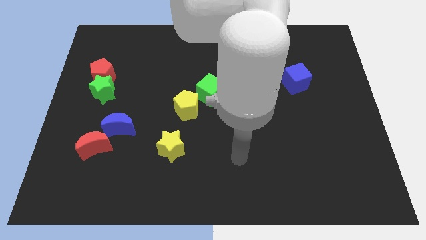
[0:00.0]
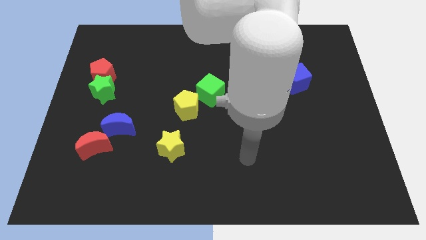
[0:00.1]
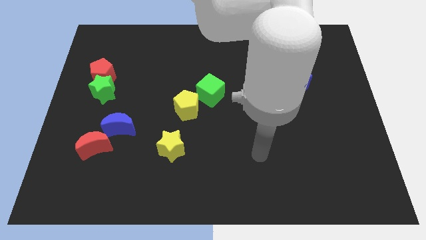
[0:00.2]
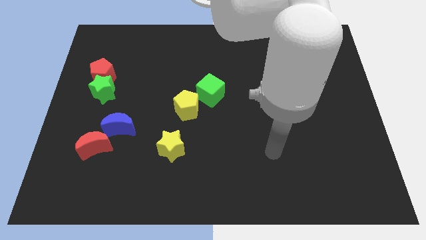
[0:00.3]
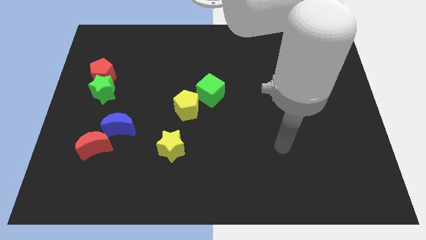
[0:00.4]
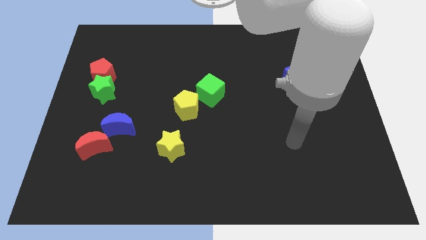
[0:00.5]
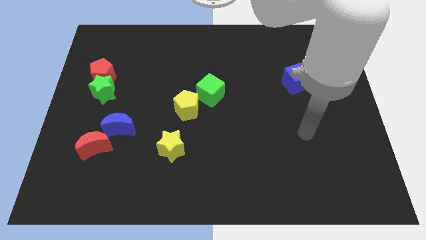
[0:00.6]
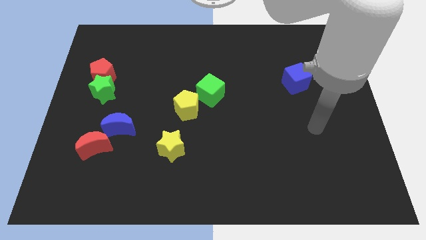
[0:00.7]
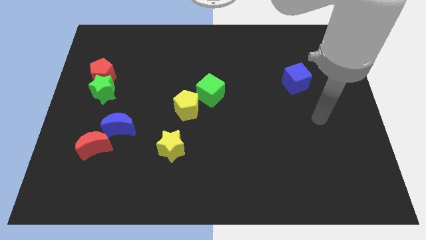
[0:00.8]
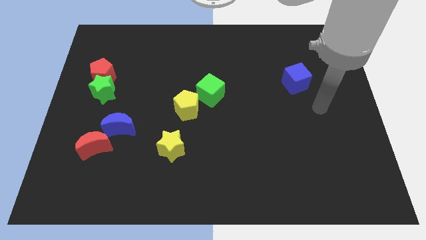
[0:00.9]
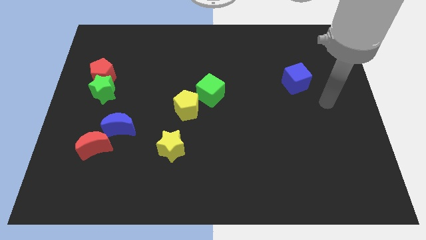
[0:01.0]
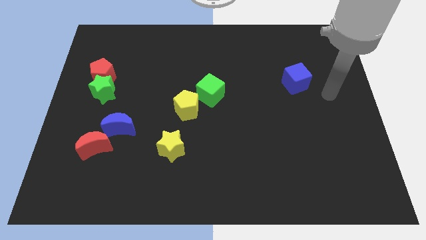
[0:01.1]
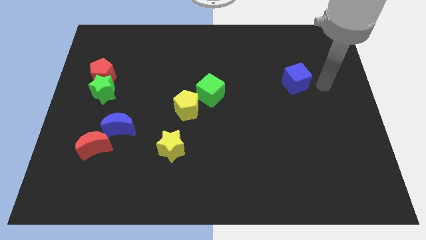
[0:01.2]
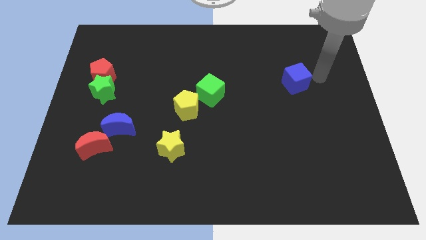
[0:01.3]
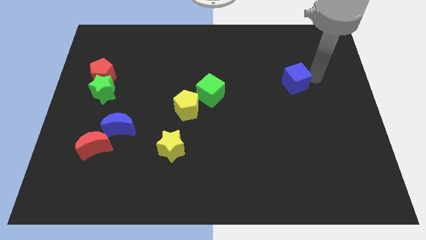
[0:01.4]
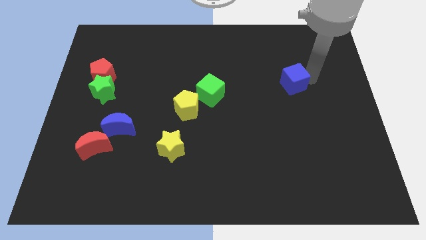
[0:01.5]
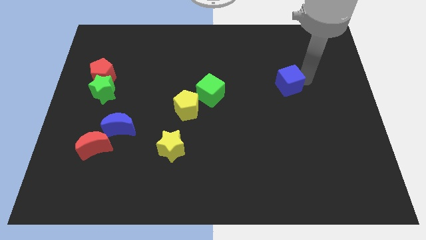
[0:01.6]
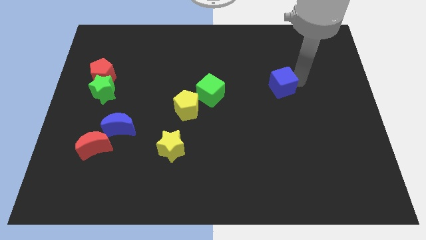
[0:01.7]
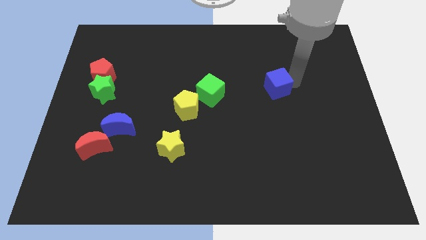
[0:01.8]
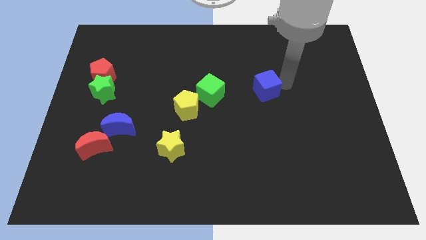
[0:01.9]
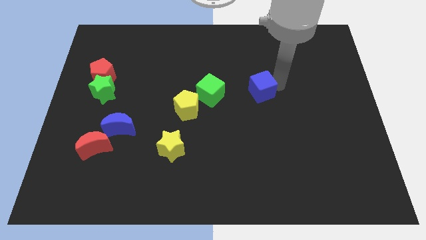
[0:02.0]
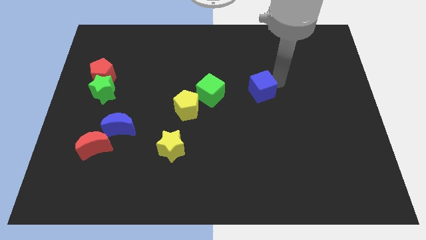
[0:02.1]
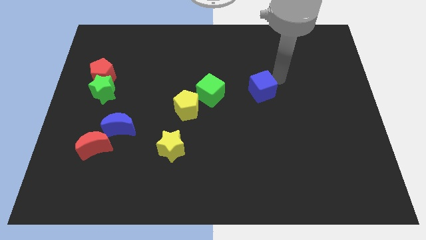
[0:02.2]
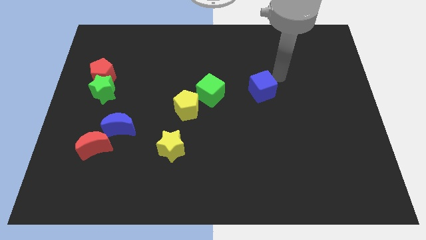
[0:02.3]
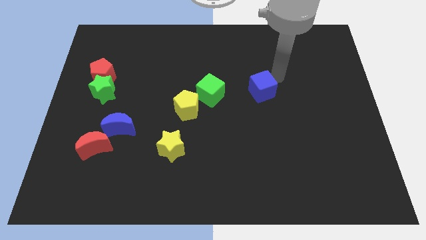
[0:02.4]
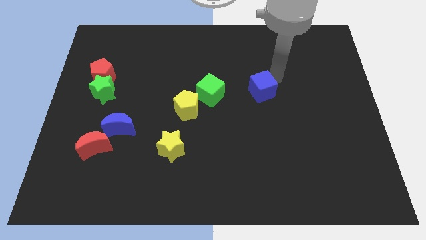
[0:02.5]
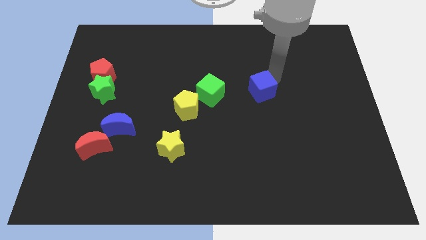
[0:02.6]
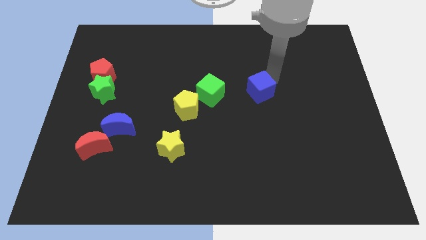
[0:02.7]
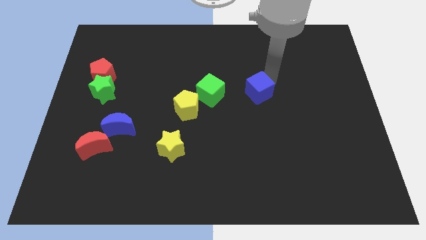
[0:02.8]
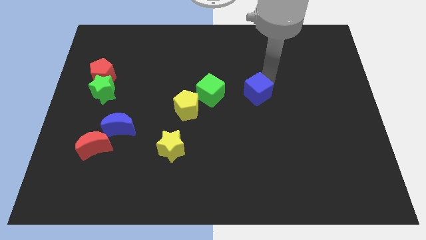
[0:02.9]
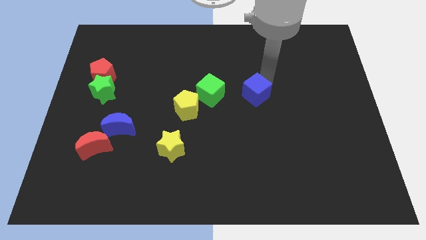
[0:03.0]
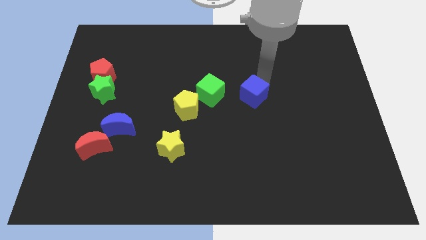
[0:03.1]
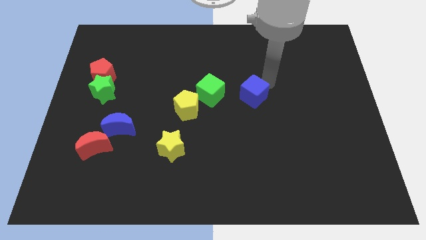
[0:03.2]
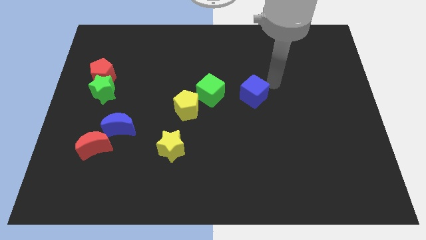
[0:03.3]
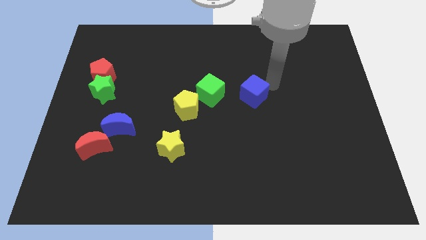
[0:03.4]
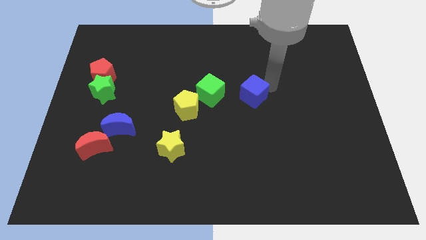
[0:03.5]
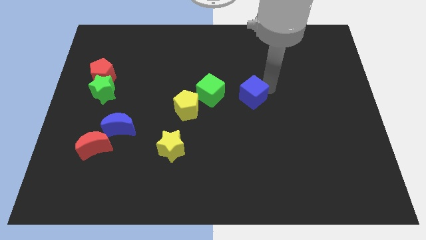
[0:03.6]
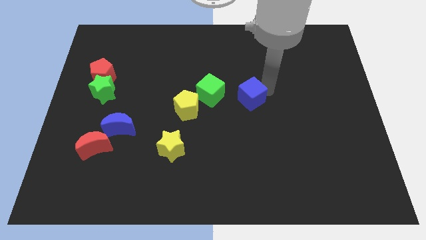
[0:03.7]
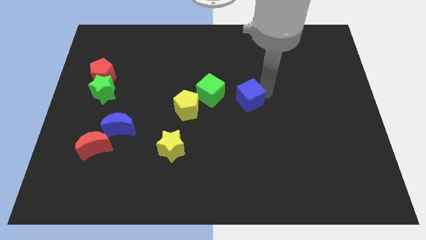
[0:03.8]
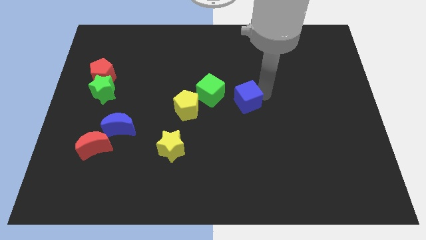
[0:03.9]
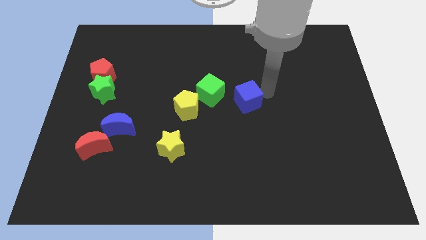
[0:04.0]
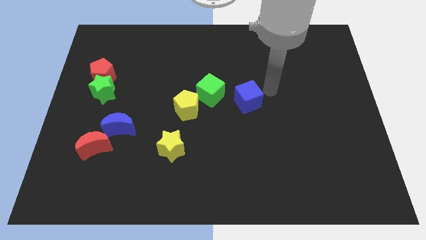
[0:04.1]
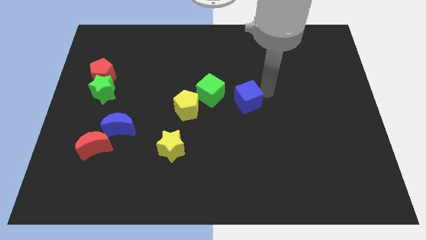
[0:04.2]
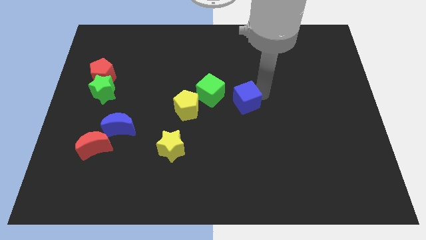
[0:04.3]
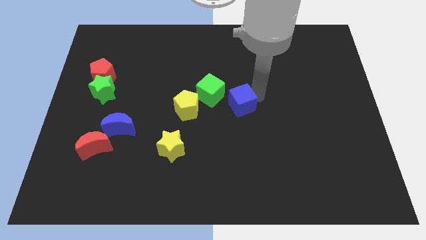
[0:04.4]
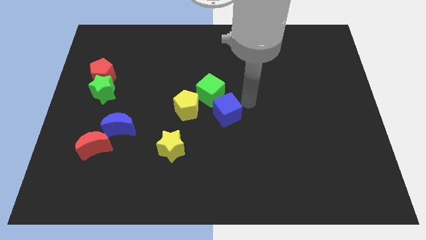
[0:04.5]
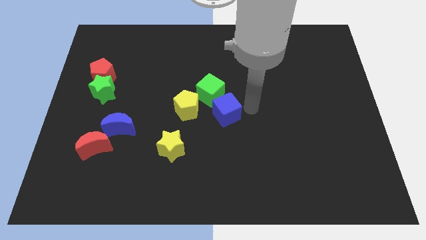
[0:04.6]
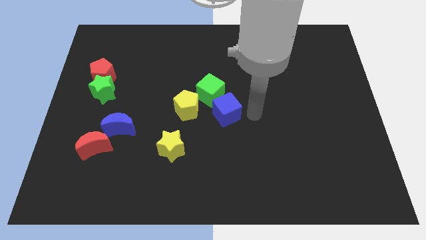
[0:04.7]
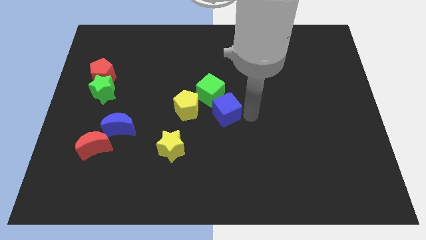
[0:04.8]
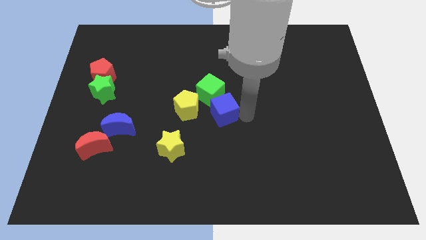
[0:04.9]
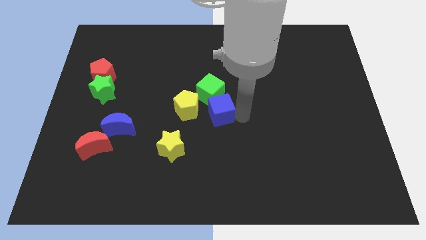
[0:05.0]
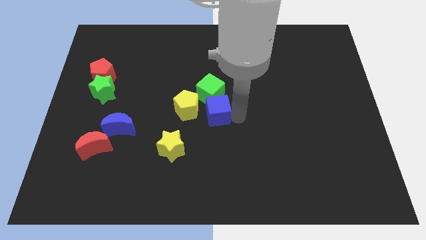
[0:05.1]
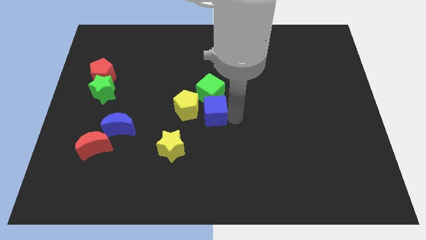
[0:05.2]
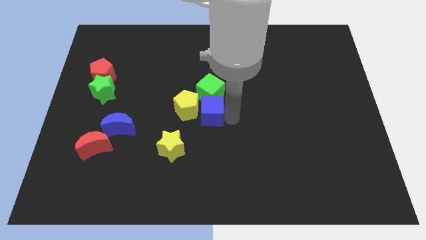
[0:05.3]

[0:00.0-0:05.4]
push the blue cube close to the yellow pentagon

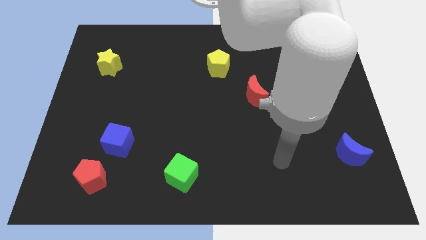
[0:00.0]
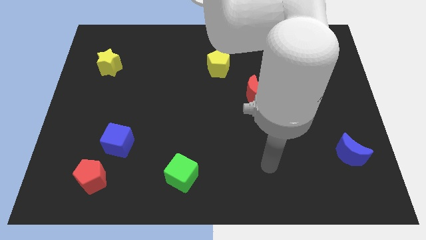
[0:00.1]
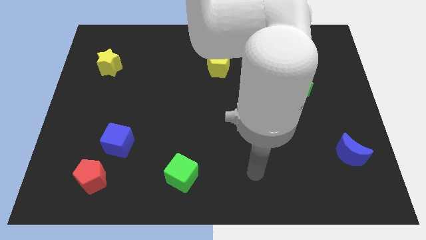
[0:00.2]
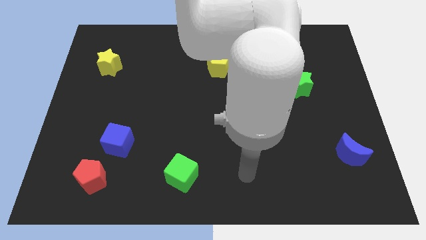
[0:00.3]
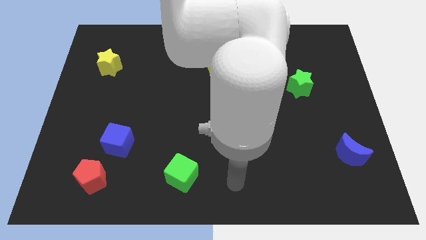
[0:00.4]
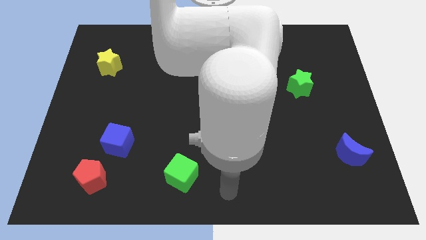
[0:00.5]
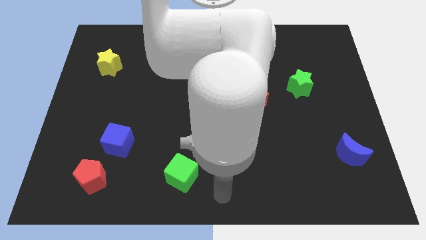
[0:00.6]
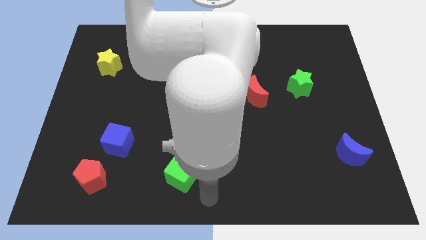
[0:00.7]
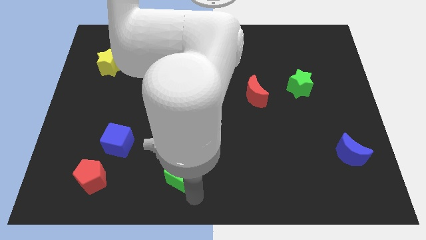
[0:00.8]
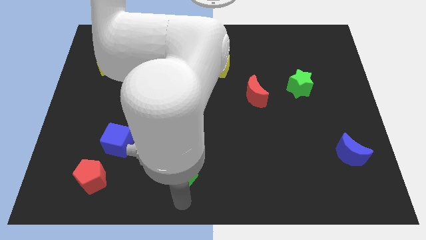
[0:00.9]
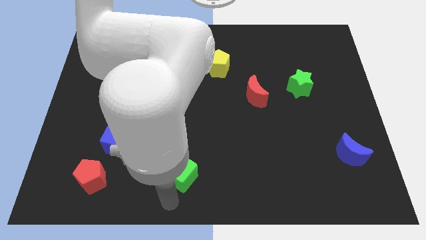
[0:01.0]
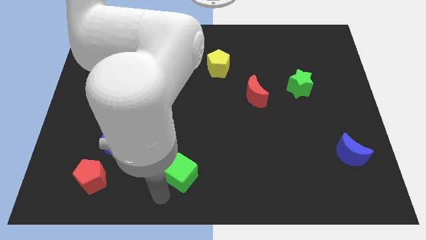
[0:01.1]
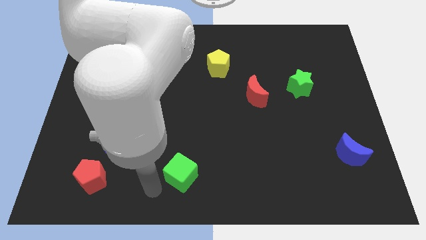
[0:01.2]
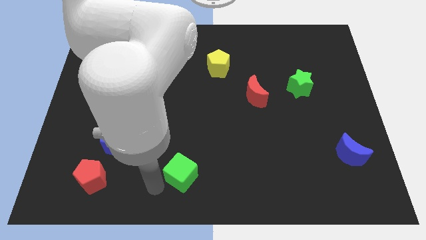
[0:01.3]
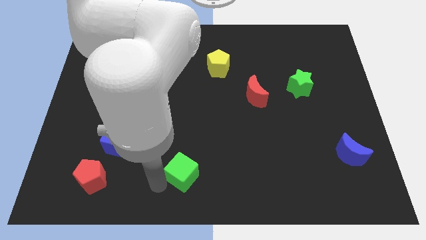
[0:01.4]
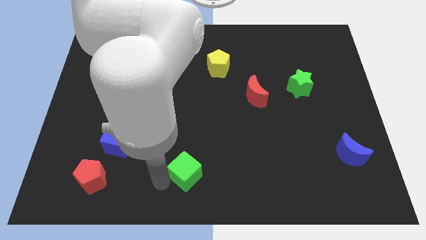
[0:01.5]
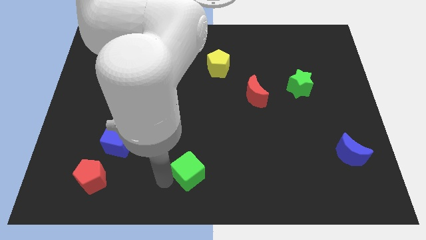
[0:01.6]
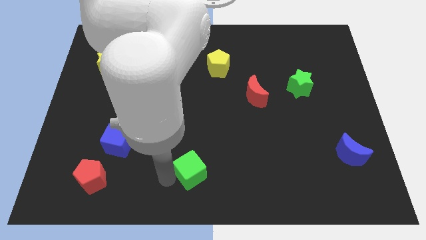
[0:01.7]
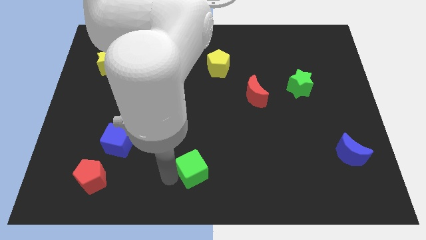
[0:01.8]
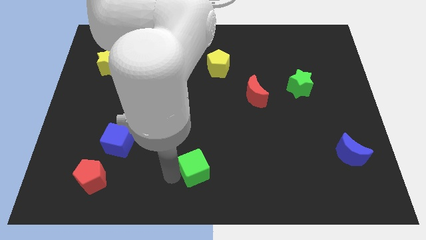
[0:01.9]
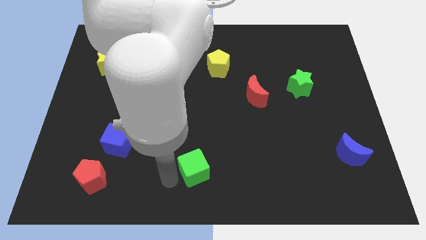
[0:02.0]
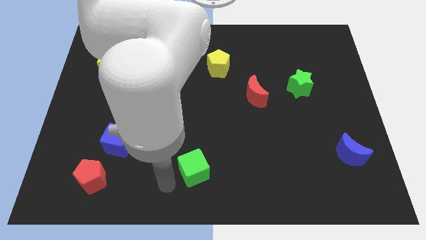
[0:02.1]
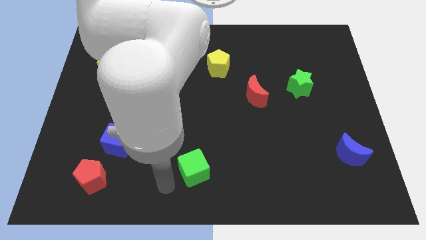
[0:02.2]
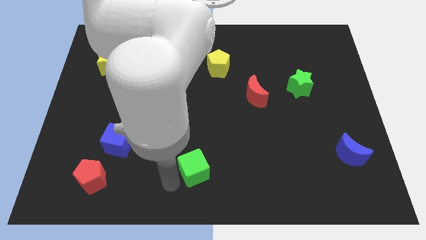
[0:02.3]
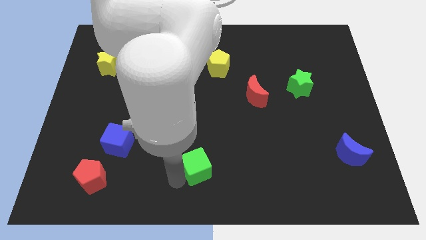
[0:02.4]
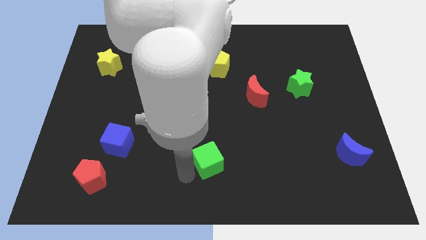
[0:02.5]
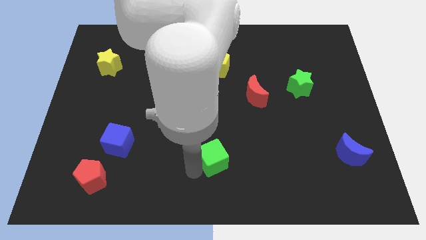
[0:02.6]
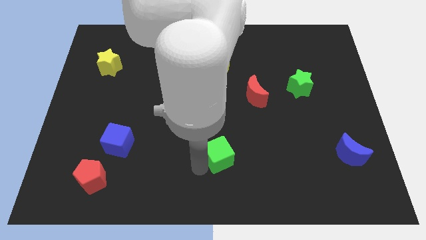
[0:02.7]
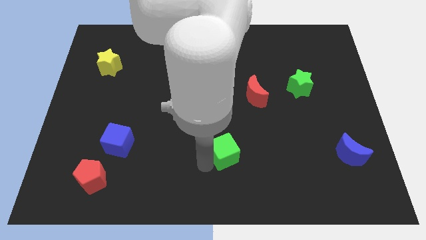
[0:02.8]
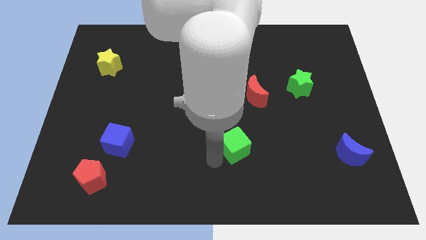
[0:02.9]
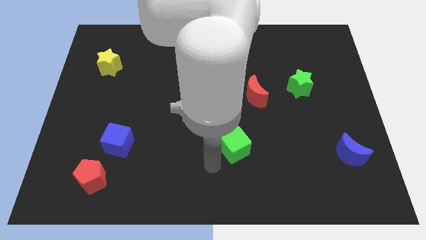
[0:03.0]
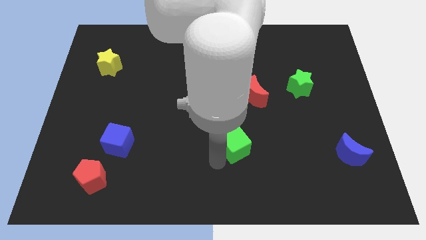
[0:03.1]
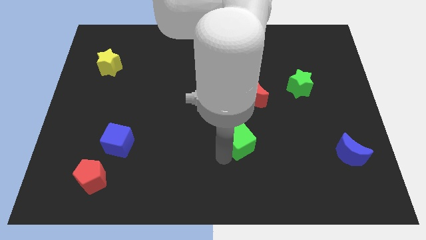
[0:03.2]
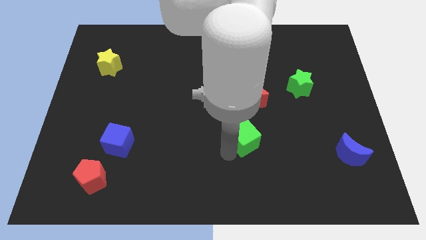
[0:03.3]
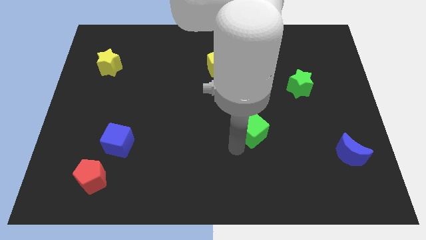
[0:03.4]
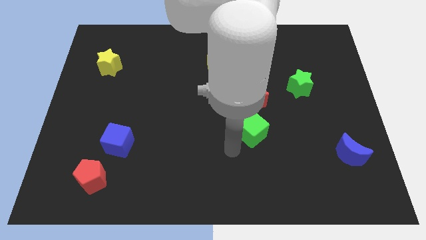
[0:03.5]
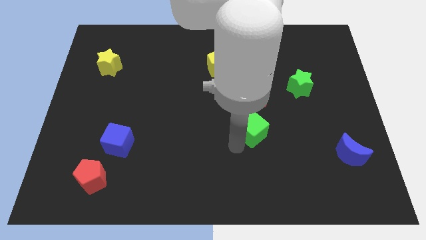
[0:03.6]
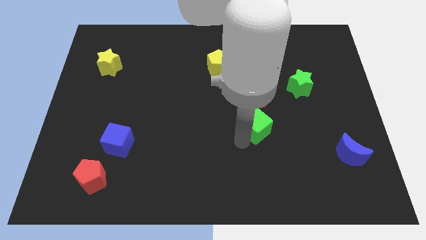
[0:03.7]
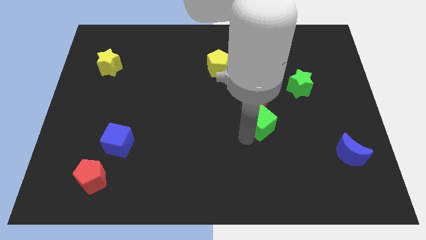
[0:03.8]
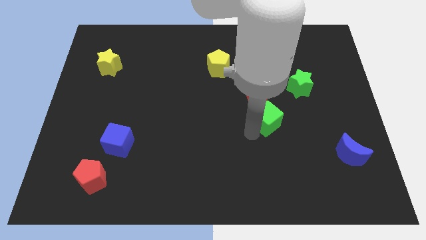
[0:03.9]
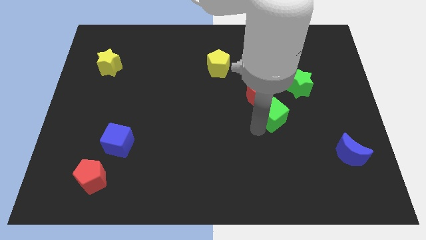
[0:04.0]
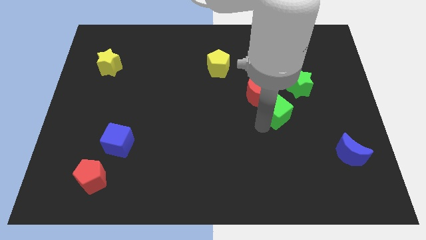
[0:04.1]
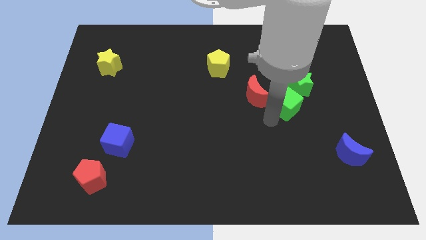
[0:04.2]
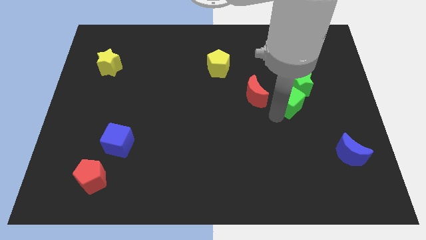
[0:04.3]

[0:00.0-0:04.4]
move the green cube to the green star
